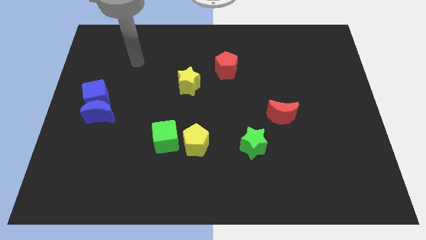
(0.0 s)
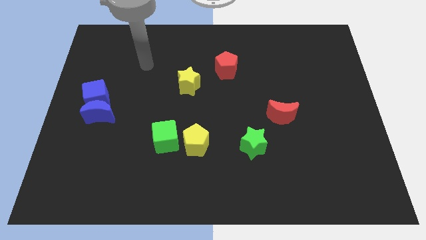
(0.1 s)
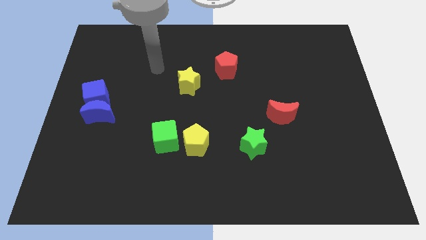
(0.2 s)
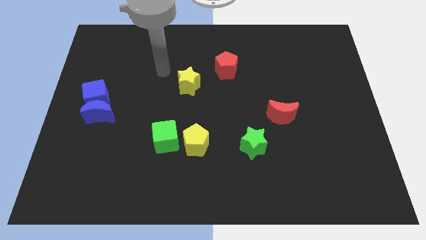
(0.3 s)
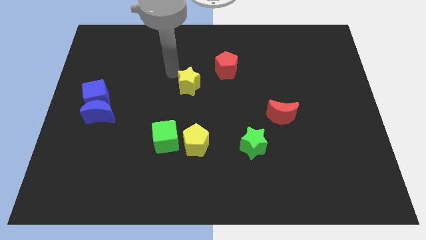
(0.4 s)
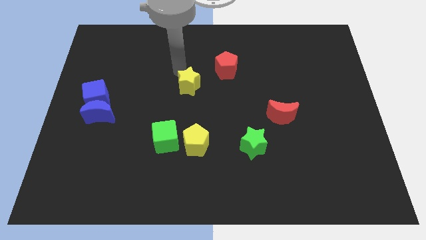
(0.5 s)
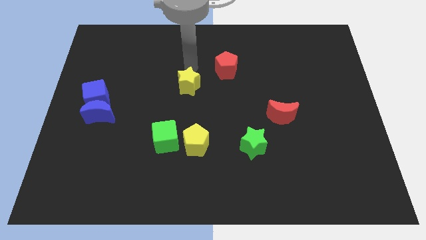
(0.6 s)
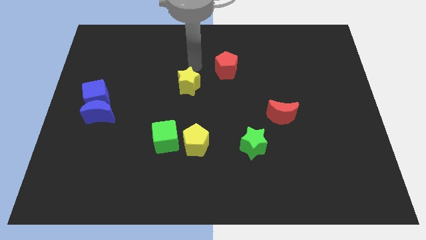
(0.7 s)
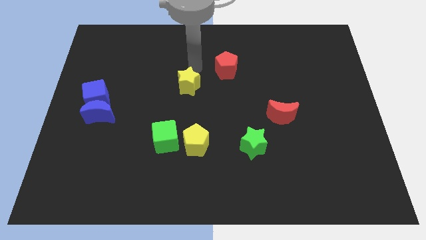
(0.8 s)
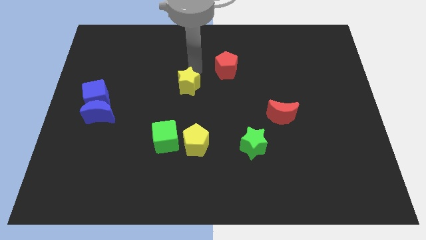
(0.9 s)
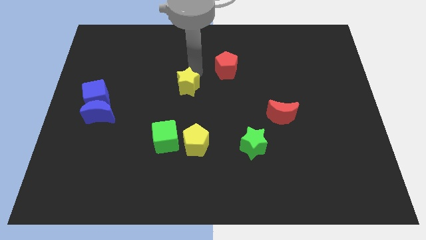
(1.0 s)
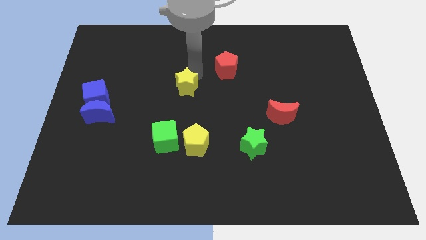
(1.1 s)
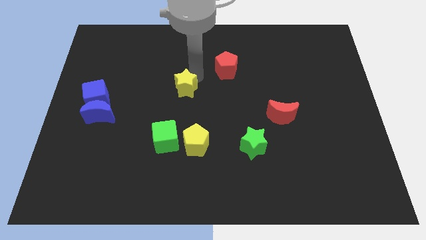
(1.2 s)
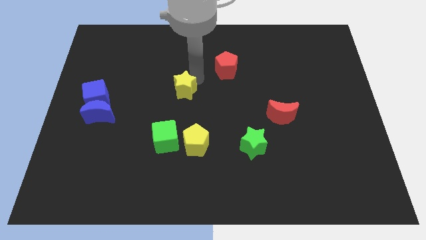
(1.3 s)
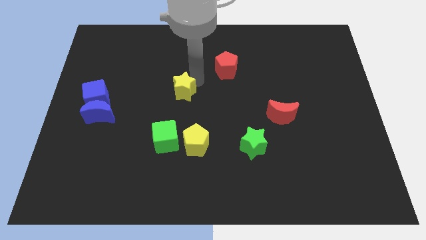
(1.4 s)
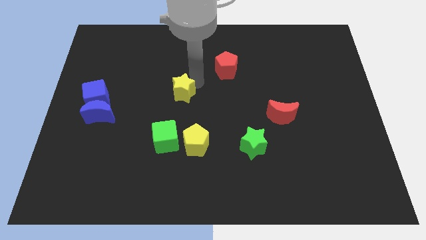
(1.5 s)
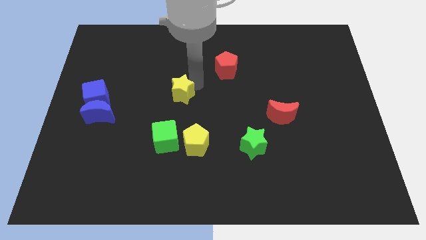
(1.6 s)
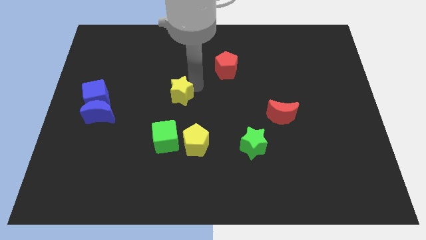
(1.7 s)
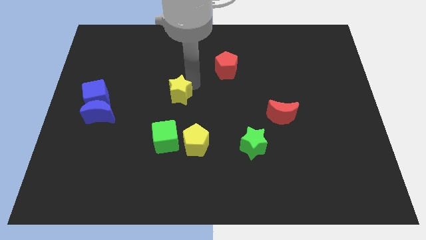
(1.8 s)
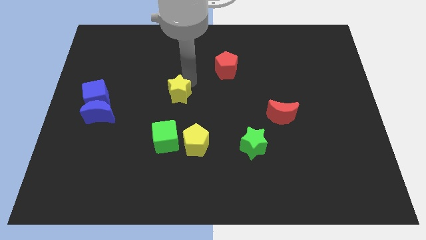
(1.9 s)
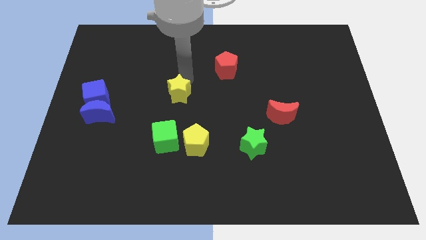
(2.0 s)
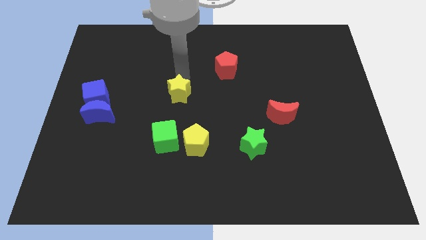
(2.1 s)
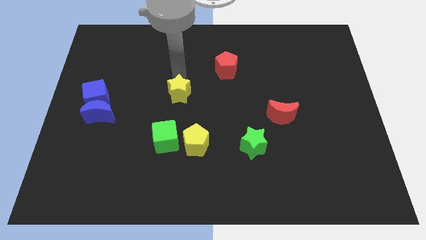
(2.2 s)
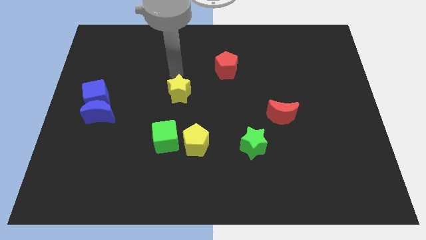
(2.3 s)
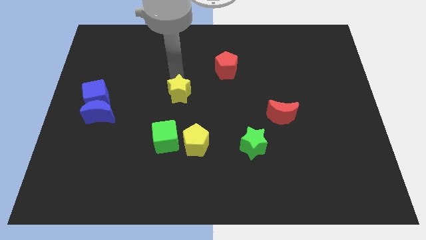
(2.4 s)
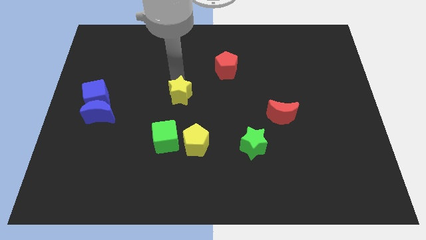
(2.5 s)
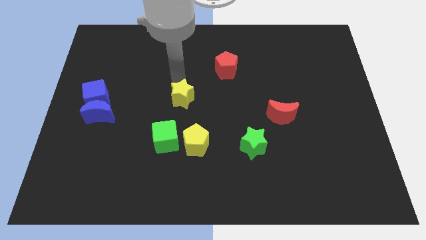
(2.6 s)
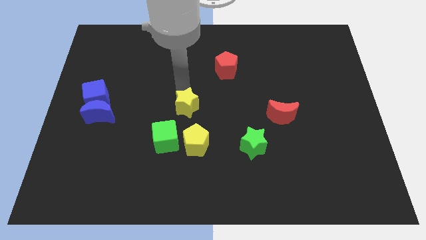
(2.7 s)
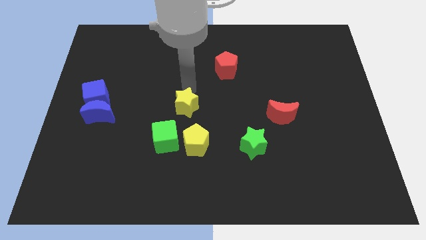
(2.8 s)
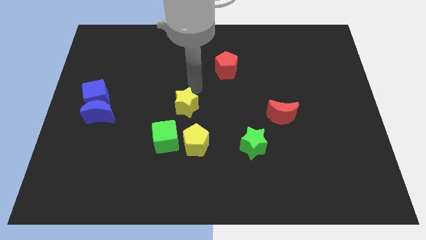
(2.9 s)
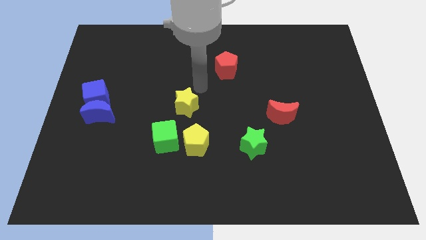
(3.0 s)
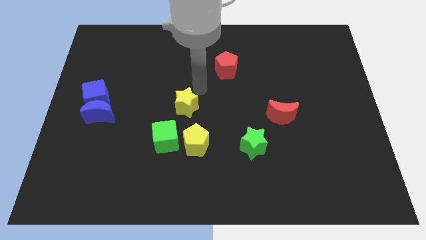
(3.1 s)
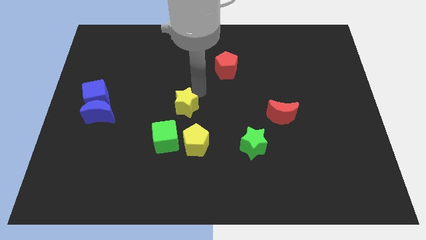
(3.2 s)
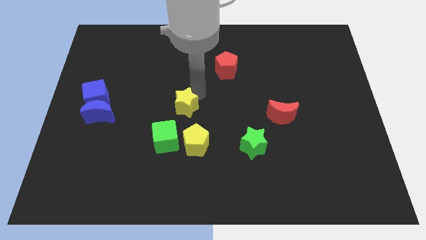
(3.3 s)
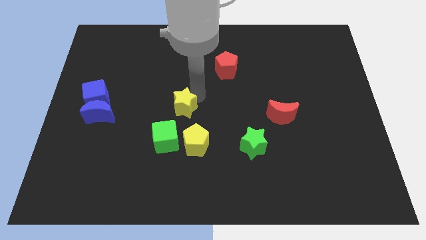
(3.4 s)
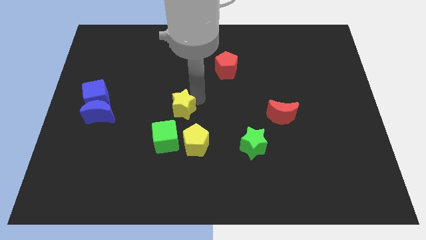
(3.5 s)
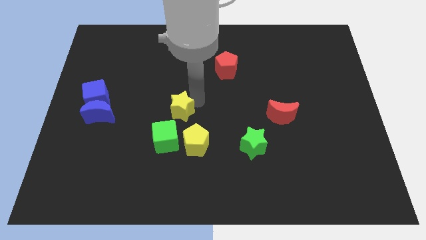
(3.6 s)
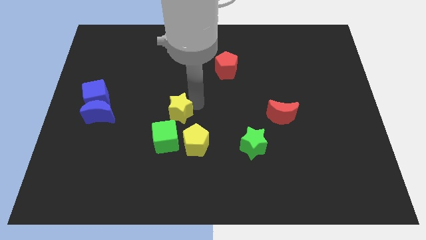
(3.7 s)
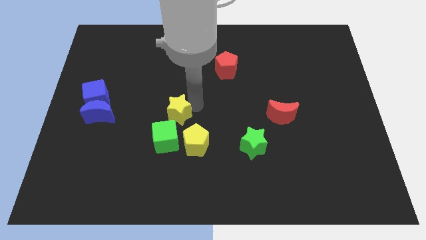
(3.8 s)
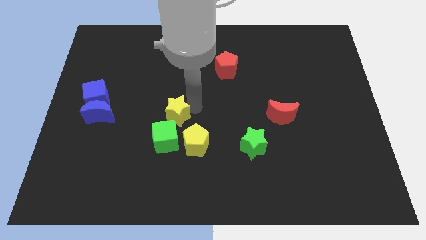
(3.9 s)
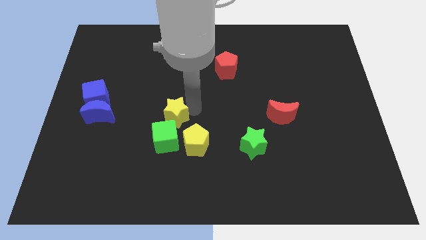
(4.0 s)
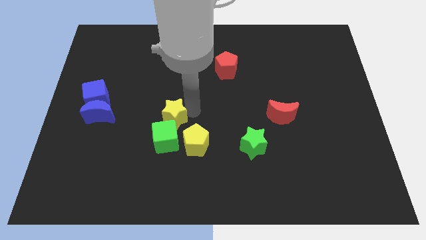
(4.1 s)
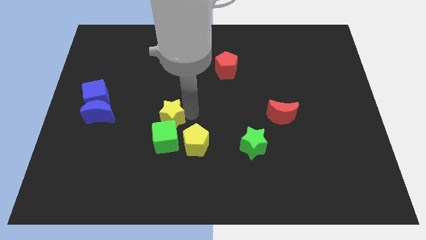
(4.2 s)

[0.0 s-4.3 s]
move the yellow star to the green cube

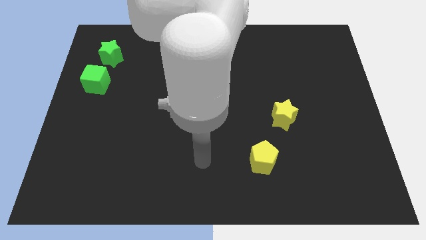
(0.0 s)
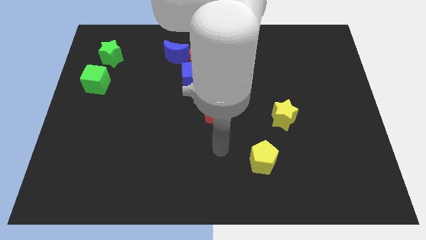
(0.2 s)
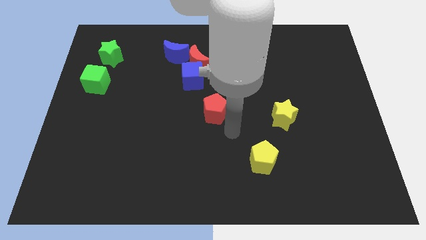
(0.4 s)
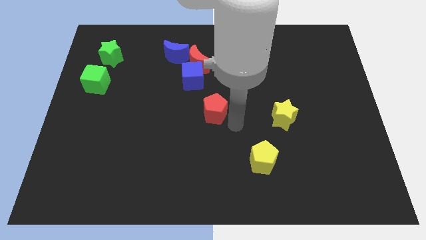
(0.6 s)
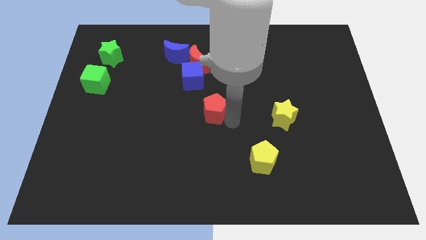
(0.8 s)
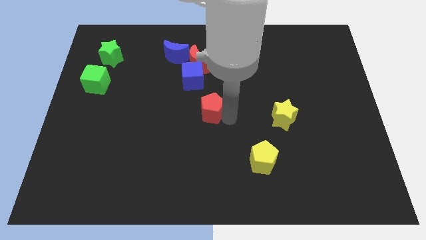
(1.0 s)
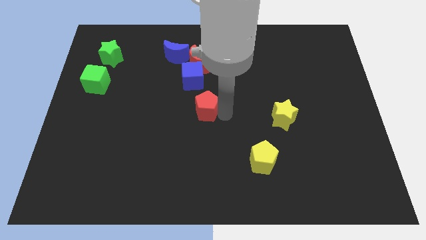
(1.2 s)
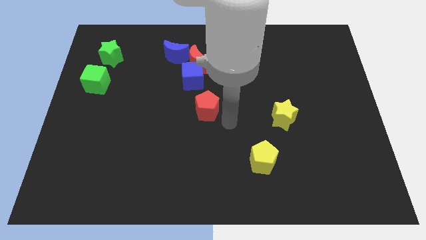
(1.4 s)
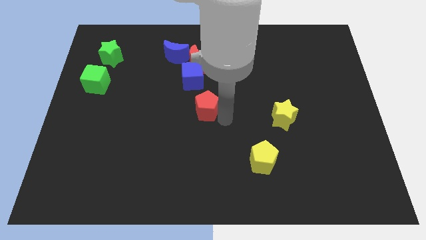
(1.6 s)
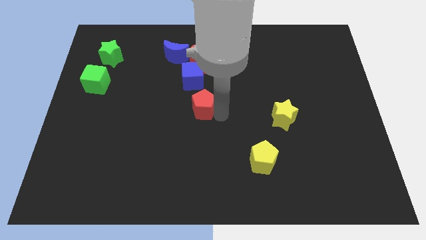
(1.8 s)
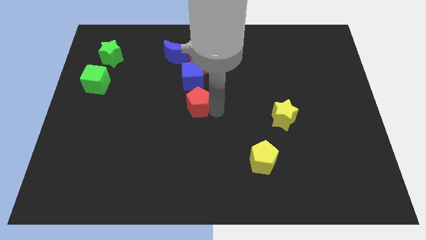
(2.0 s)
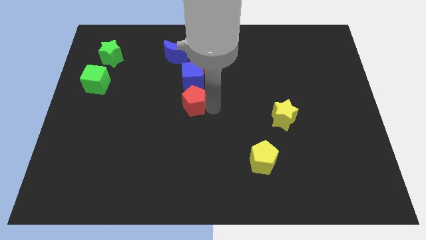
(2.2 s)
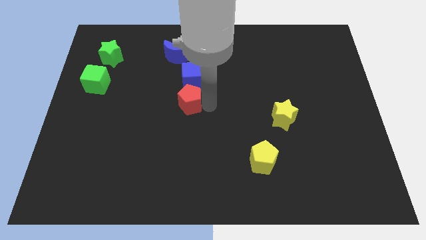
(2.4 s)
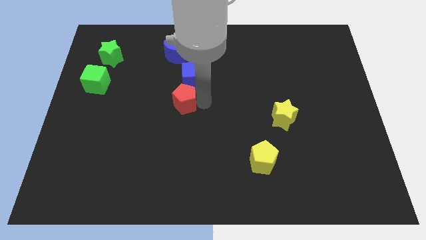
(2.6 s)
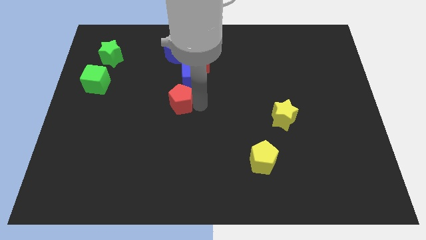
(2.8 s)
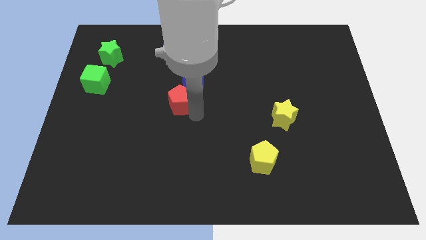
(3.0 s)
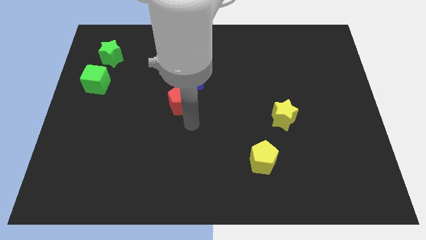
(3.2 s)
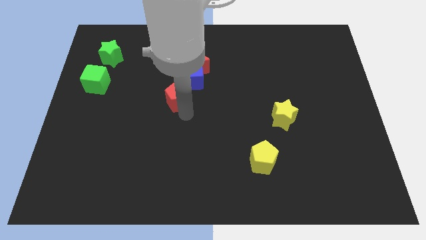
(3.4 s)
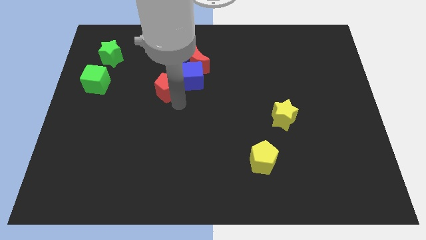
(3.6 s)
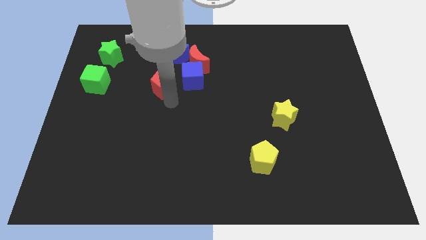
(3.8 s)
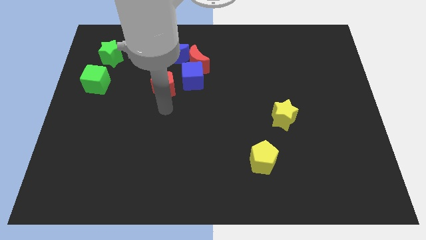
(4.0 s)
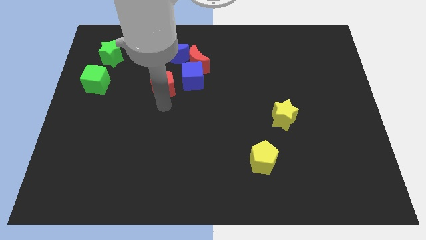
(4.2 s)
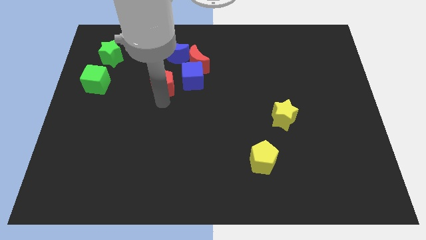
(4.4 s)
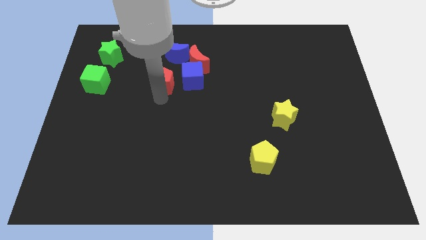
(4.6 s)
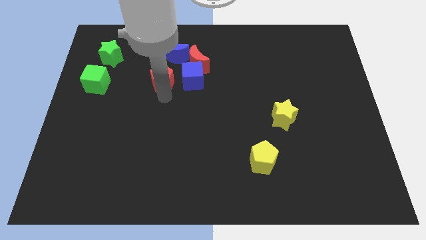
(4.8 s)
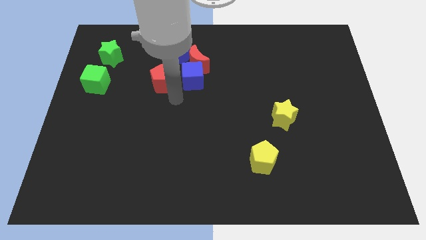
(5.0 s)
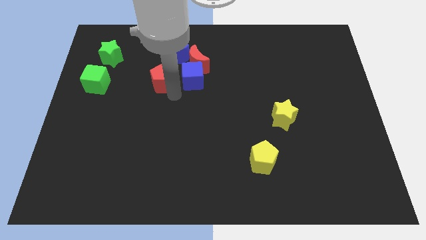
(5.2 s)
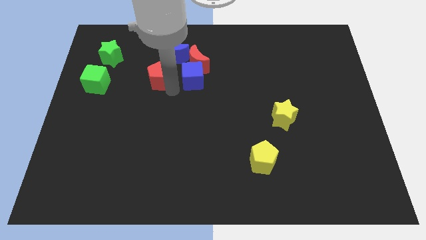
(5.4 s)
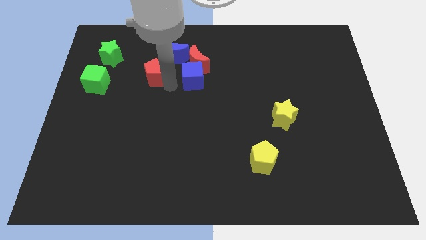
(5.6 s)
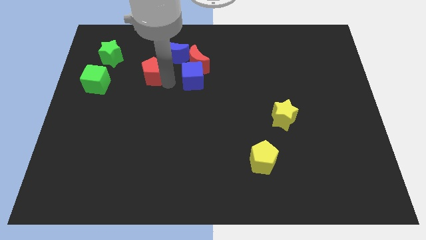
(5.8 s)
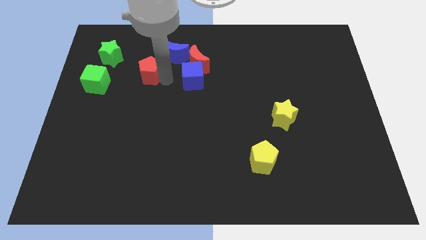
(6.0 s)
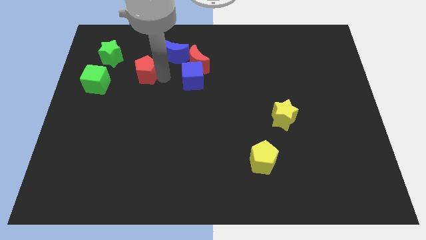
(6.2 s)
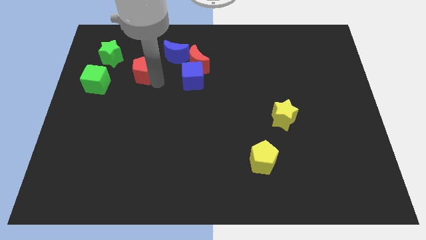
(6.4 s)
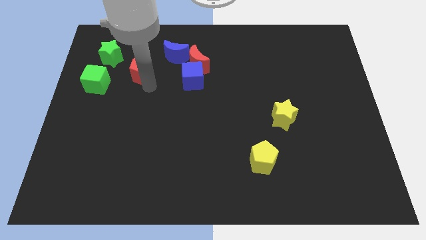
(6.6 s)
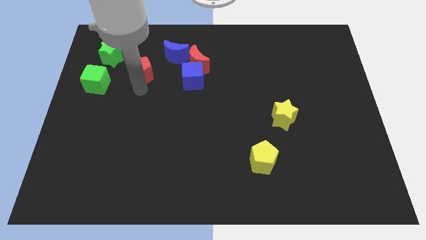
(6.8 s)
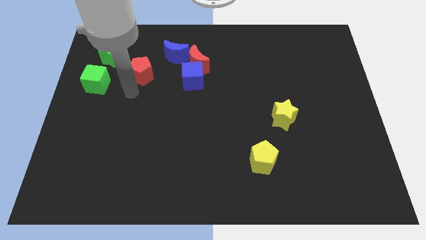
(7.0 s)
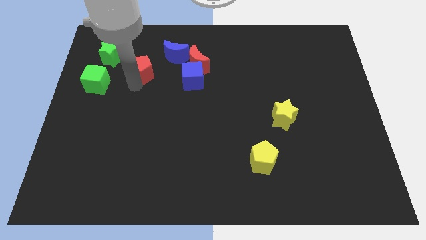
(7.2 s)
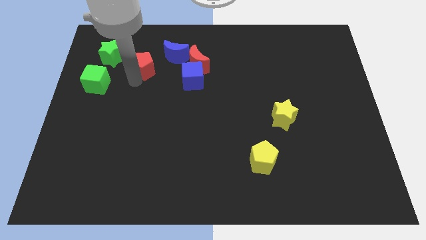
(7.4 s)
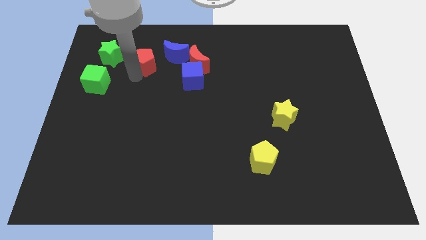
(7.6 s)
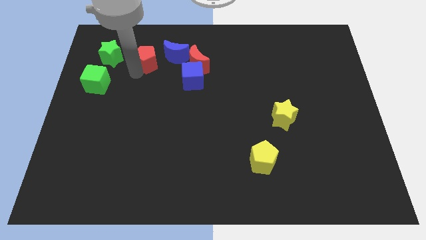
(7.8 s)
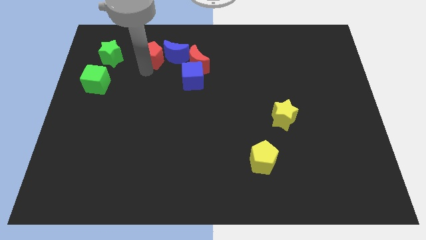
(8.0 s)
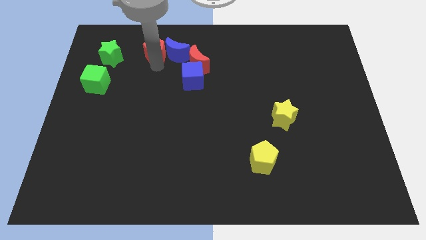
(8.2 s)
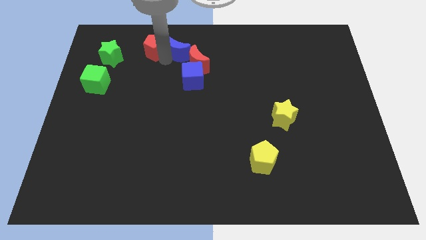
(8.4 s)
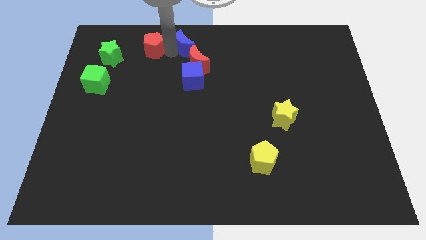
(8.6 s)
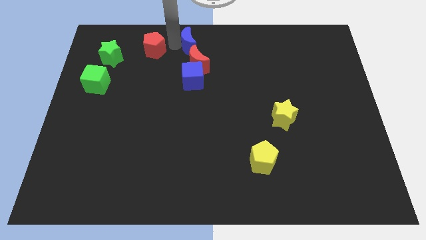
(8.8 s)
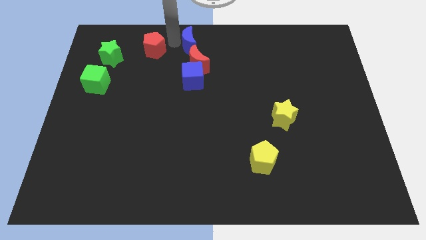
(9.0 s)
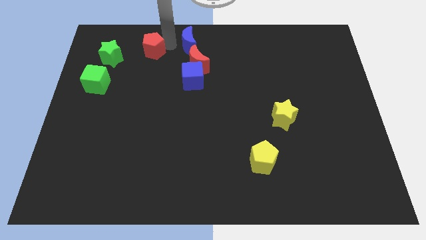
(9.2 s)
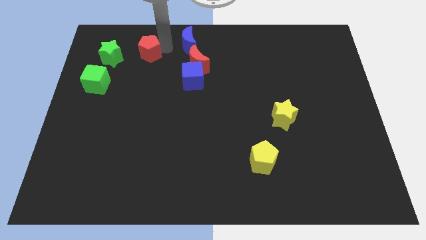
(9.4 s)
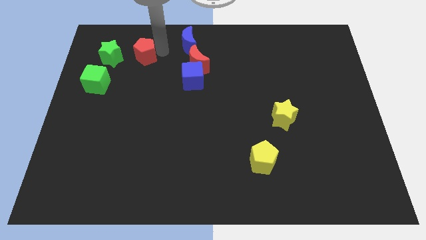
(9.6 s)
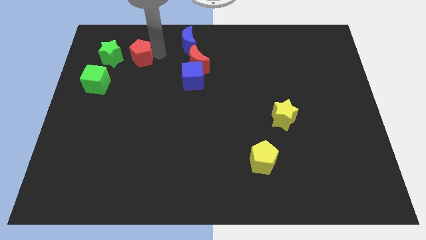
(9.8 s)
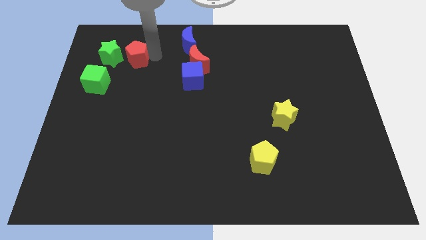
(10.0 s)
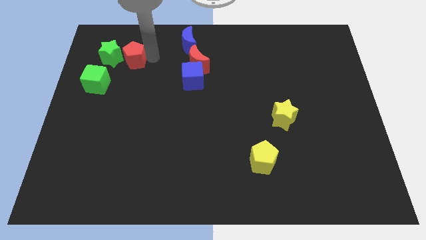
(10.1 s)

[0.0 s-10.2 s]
slide the red pentagon next to the green star
